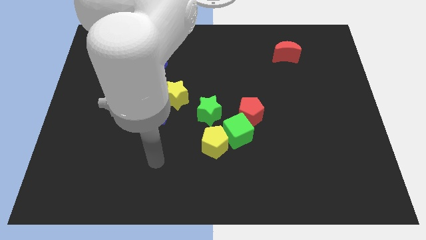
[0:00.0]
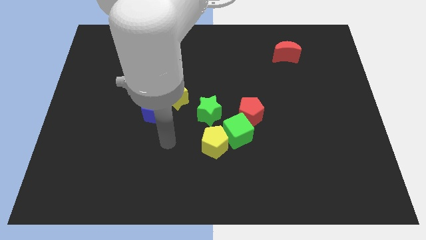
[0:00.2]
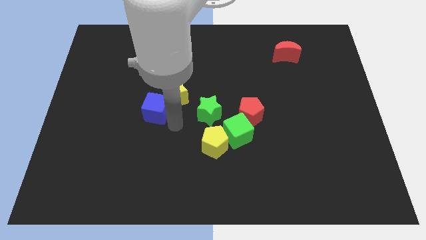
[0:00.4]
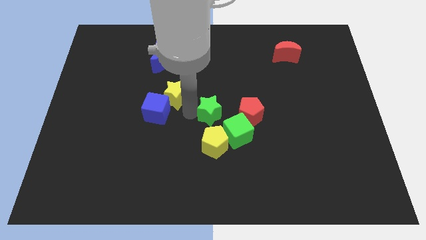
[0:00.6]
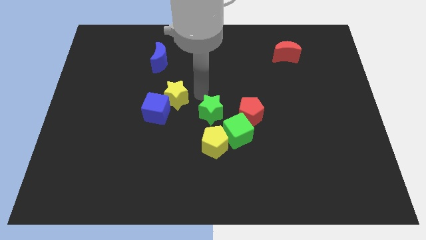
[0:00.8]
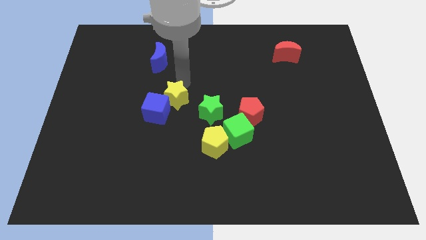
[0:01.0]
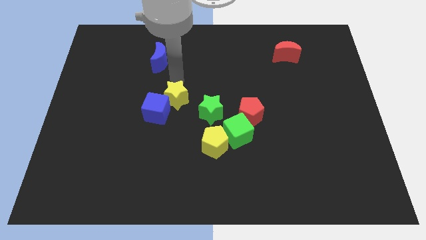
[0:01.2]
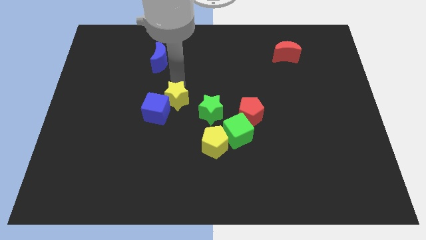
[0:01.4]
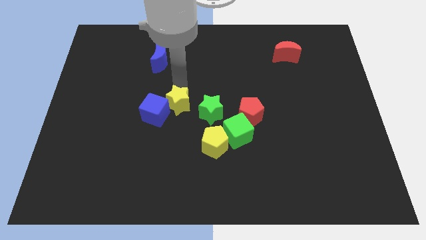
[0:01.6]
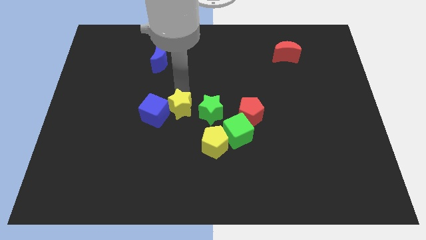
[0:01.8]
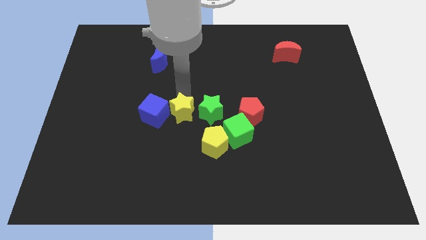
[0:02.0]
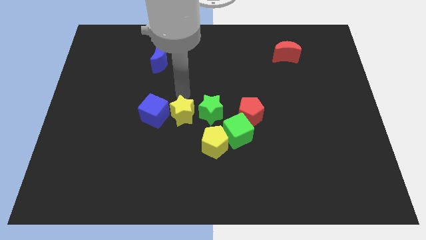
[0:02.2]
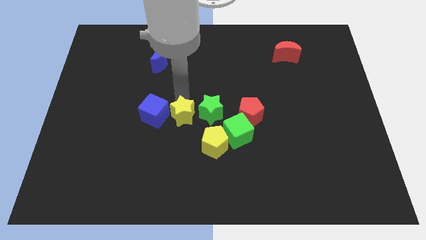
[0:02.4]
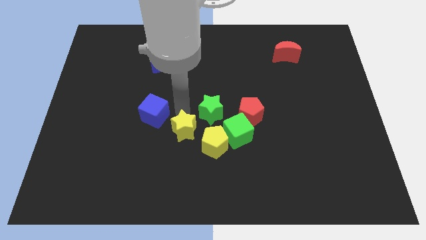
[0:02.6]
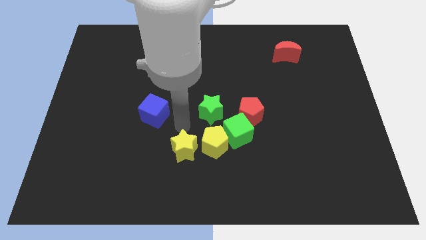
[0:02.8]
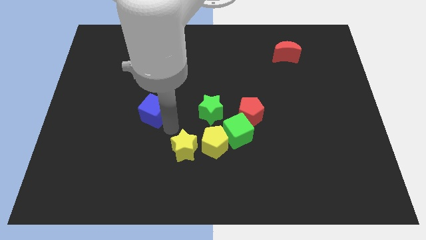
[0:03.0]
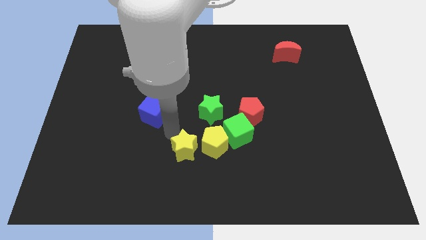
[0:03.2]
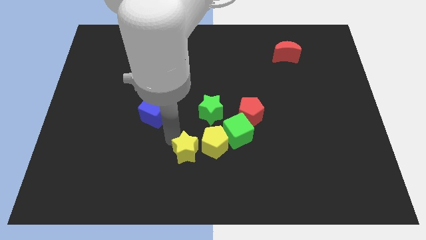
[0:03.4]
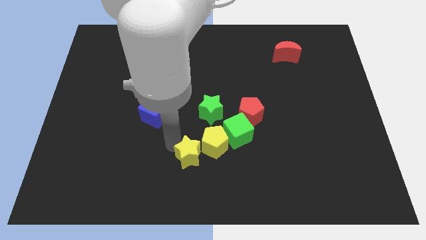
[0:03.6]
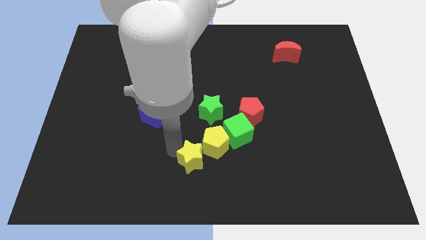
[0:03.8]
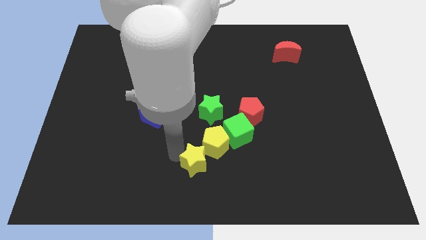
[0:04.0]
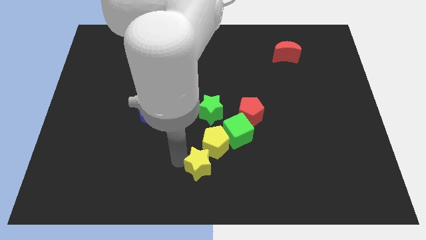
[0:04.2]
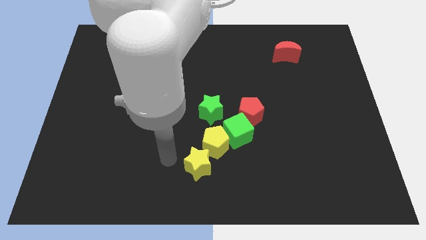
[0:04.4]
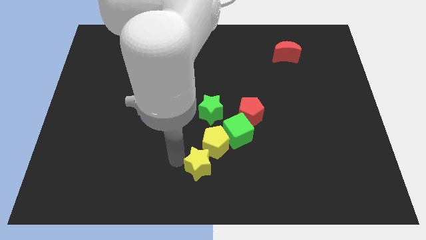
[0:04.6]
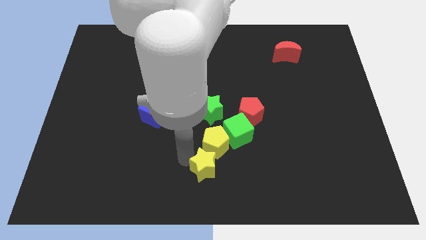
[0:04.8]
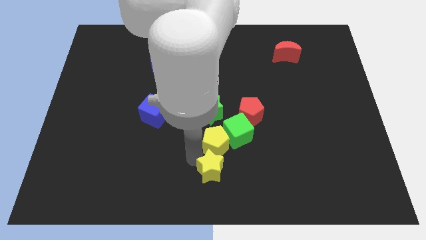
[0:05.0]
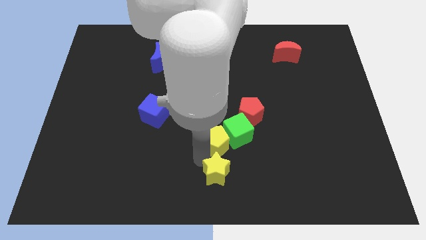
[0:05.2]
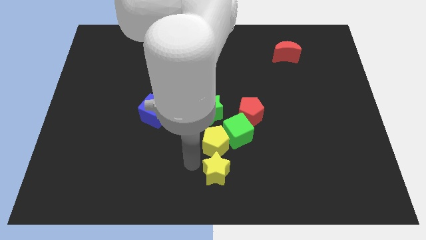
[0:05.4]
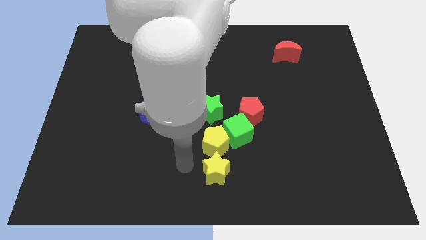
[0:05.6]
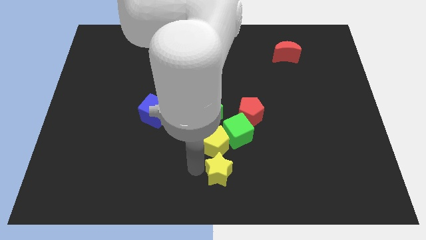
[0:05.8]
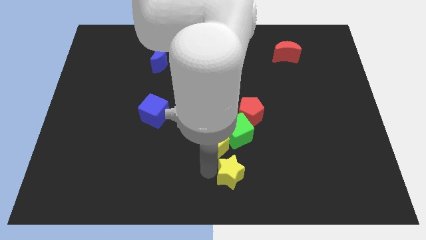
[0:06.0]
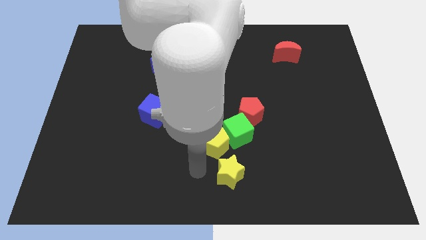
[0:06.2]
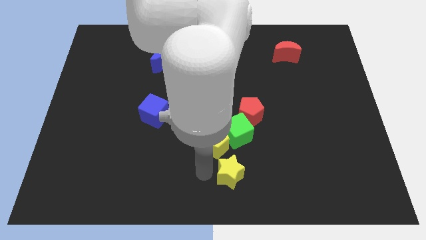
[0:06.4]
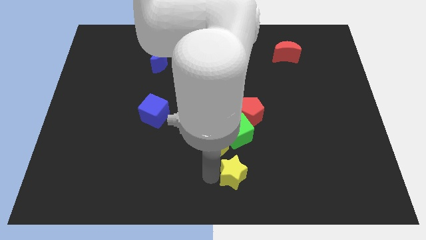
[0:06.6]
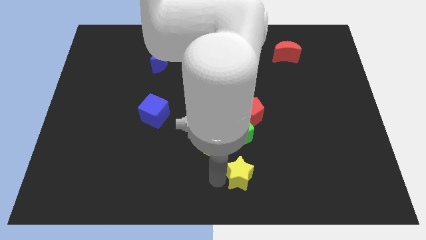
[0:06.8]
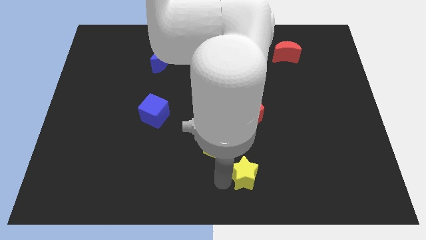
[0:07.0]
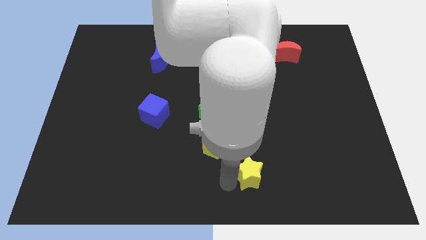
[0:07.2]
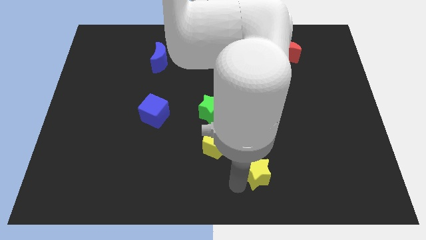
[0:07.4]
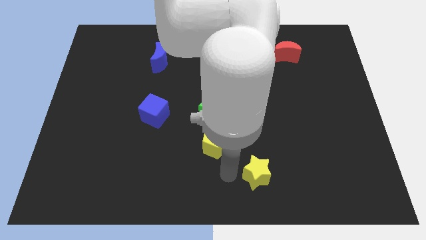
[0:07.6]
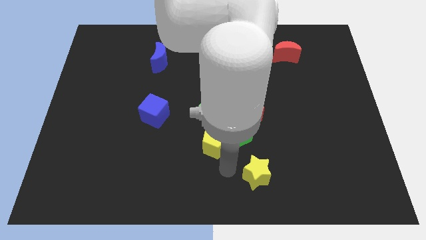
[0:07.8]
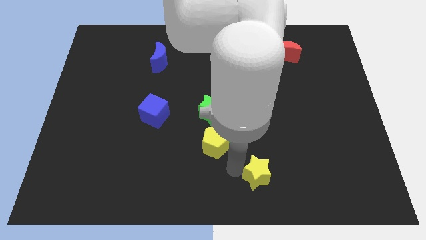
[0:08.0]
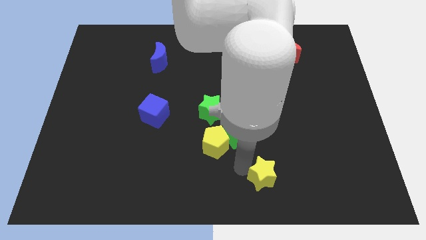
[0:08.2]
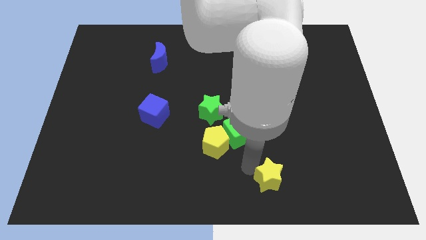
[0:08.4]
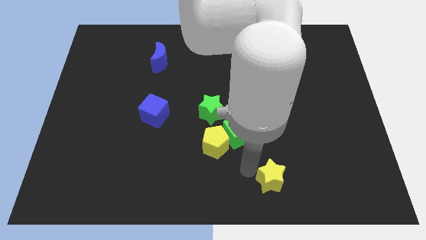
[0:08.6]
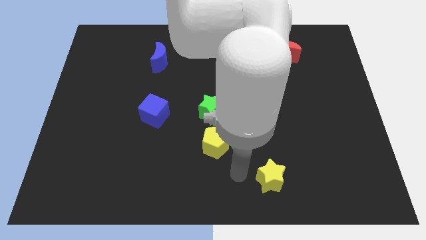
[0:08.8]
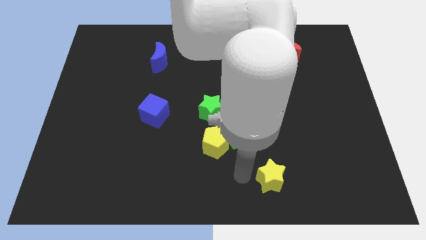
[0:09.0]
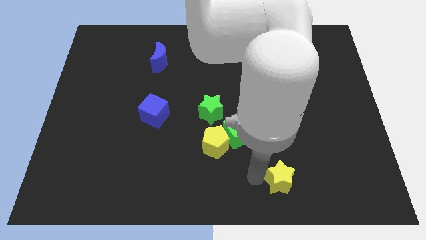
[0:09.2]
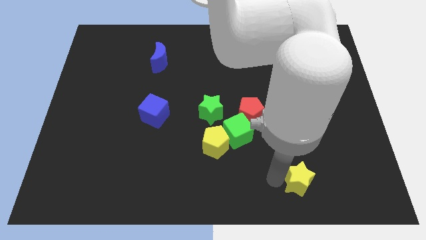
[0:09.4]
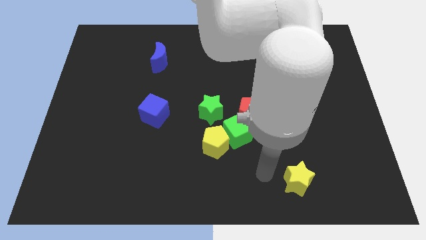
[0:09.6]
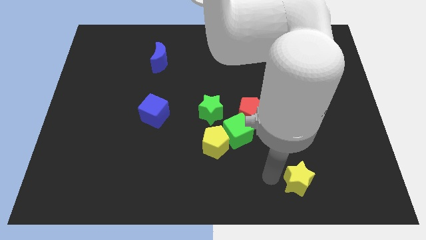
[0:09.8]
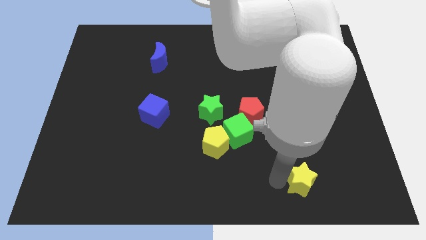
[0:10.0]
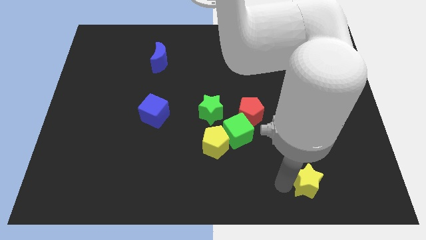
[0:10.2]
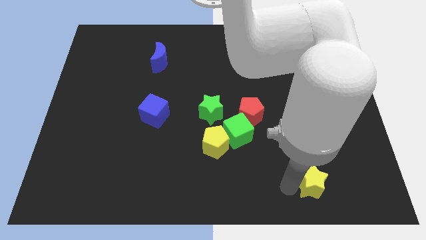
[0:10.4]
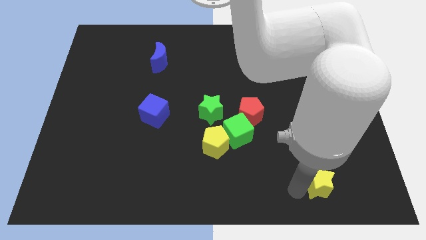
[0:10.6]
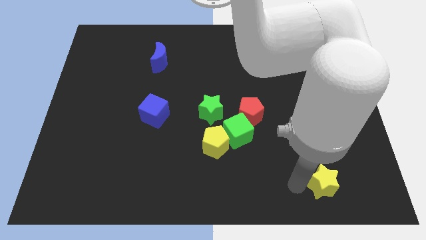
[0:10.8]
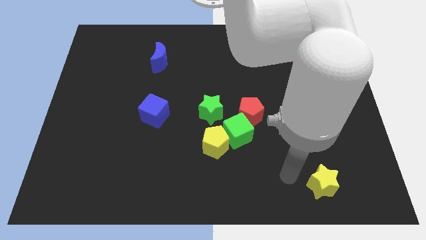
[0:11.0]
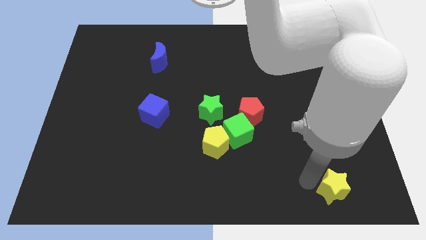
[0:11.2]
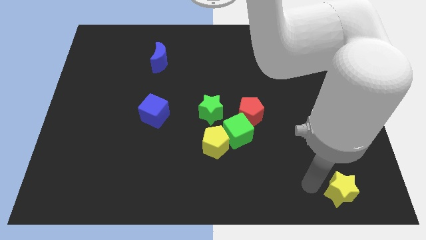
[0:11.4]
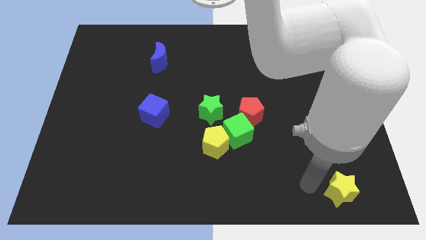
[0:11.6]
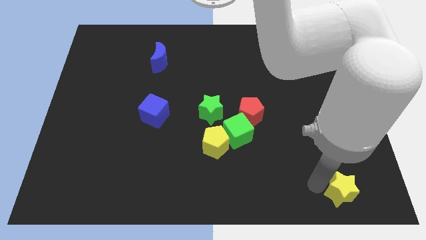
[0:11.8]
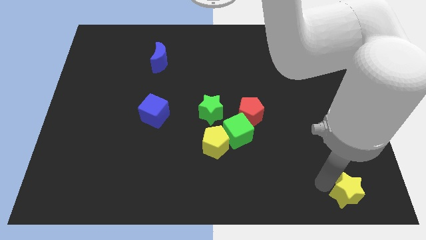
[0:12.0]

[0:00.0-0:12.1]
move the yellow star to the bottom right of the board
